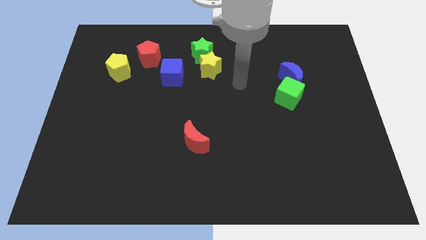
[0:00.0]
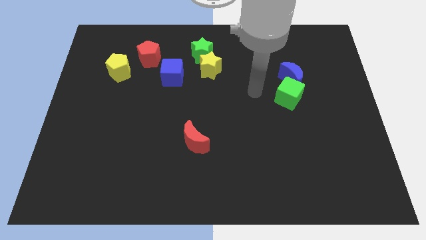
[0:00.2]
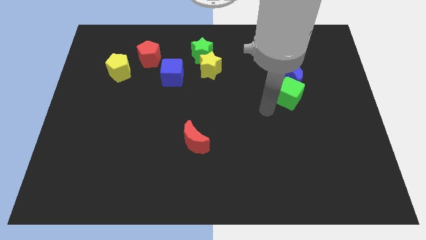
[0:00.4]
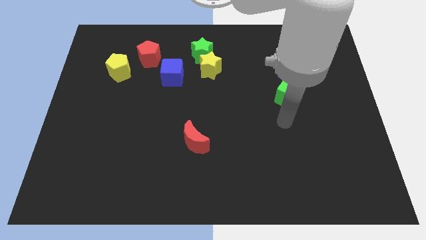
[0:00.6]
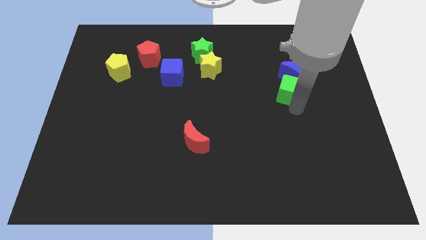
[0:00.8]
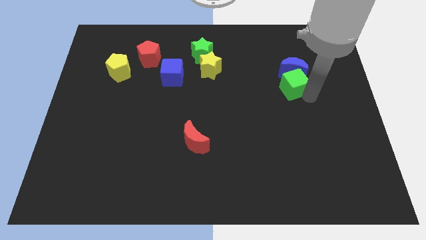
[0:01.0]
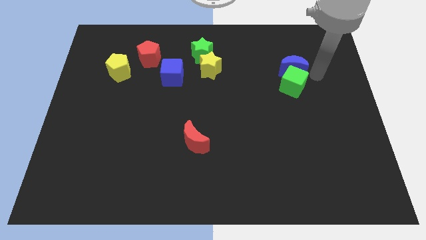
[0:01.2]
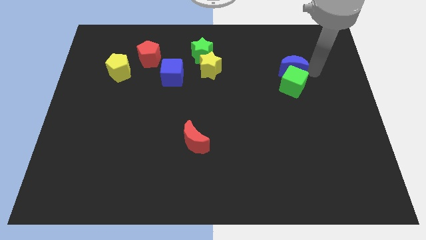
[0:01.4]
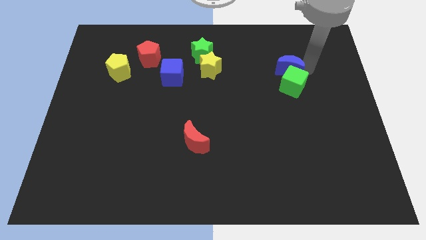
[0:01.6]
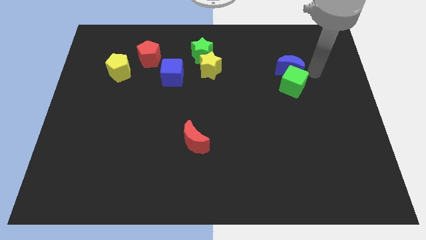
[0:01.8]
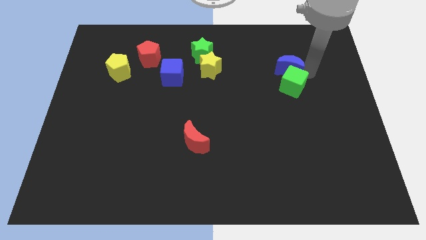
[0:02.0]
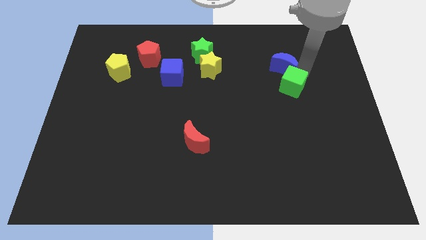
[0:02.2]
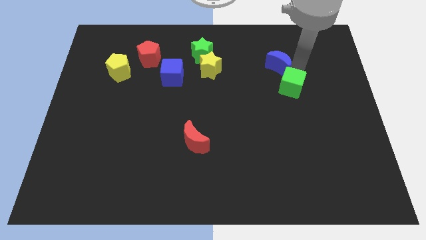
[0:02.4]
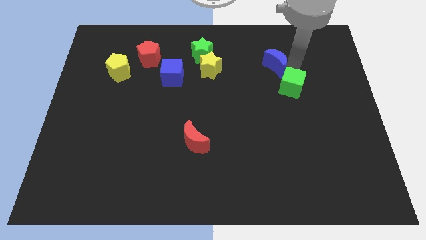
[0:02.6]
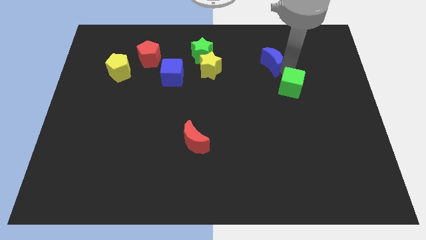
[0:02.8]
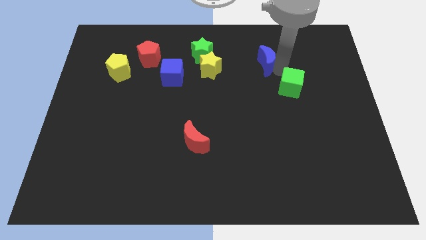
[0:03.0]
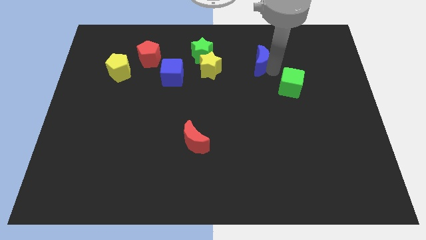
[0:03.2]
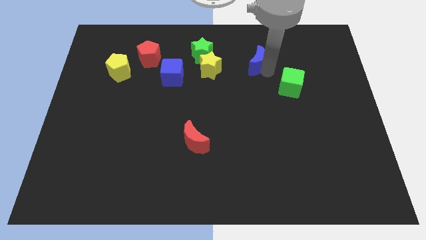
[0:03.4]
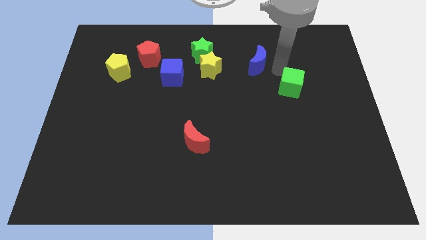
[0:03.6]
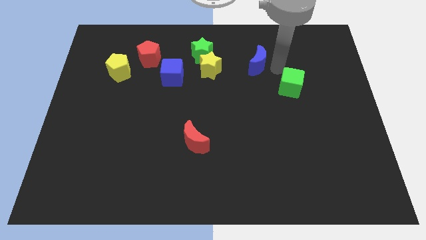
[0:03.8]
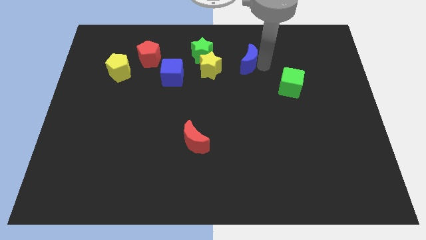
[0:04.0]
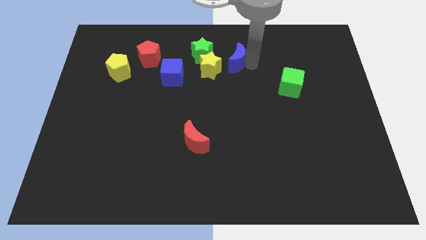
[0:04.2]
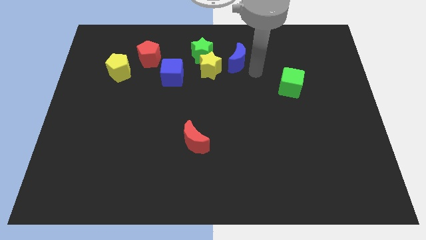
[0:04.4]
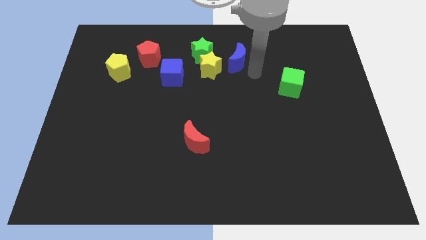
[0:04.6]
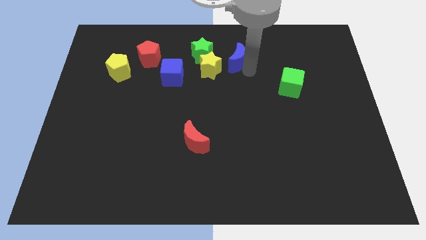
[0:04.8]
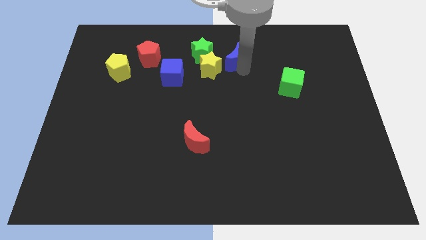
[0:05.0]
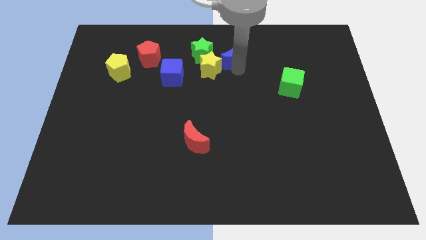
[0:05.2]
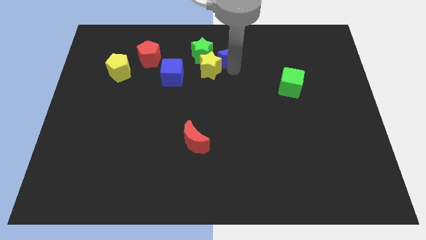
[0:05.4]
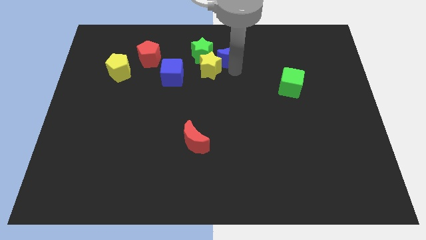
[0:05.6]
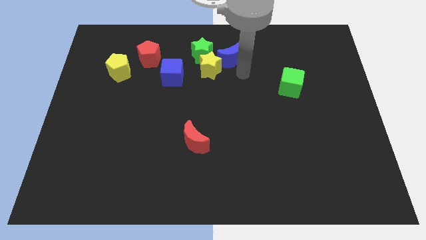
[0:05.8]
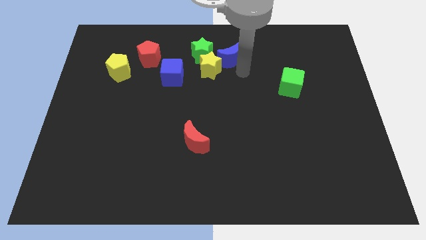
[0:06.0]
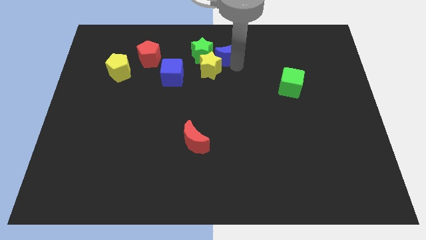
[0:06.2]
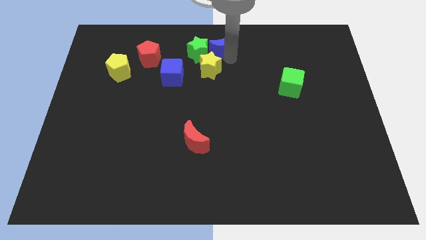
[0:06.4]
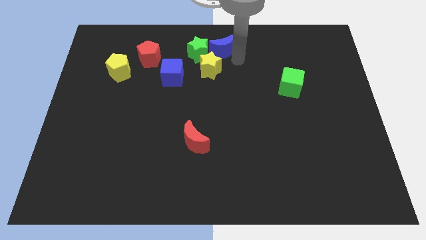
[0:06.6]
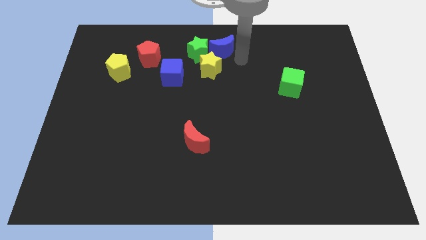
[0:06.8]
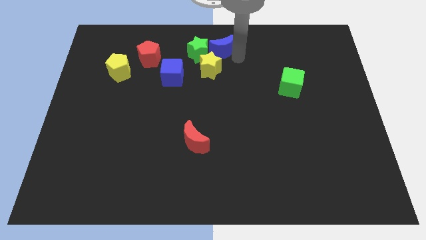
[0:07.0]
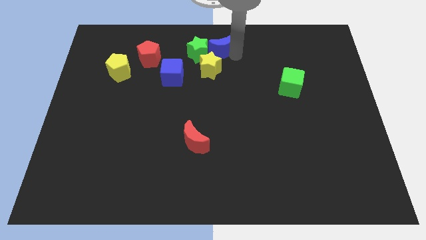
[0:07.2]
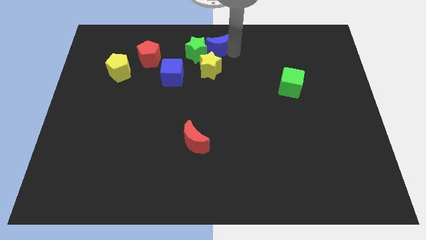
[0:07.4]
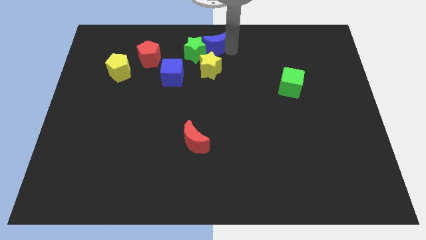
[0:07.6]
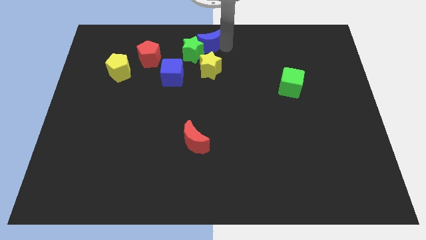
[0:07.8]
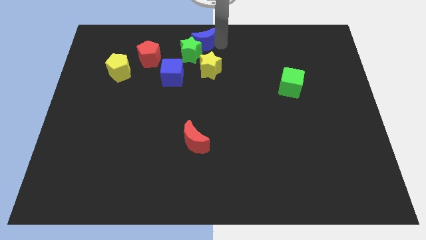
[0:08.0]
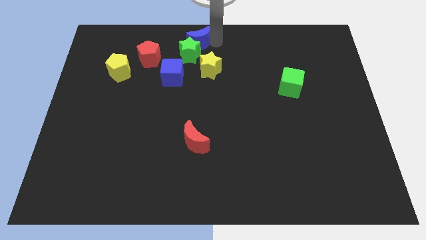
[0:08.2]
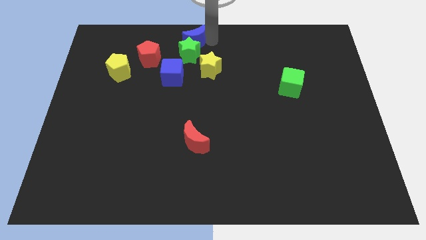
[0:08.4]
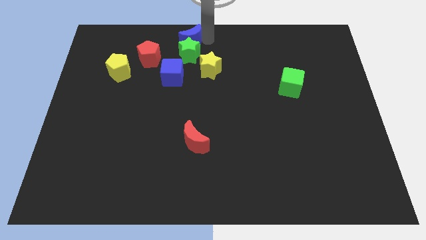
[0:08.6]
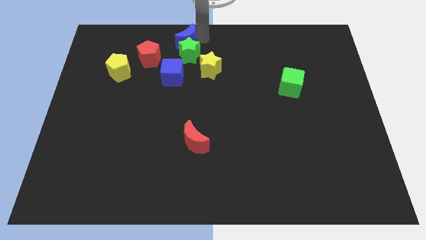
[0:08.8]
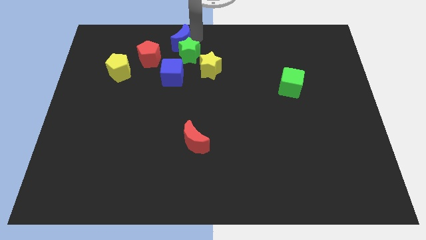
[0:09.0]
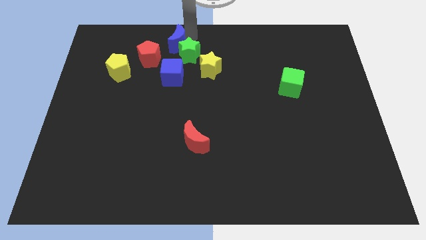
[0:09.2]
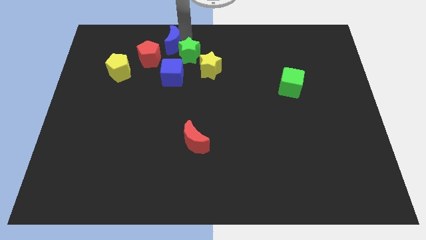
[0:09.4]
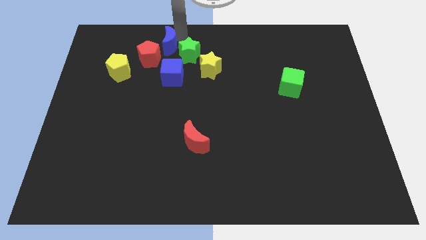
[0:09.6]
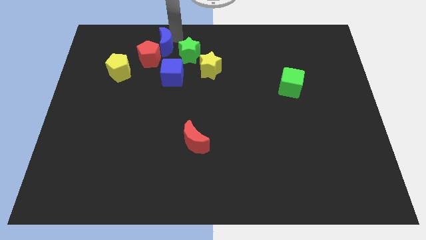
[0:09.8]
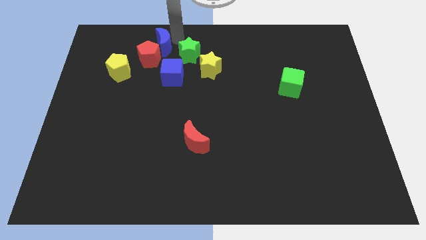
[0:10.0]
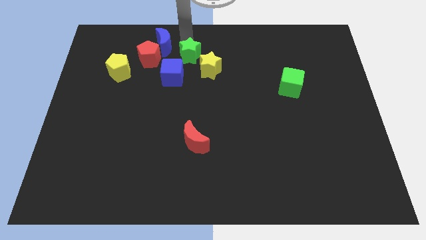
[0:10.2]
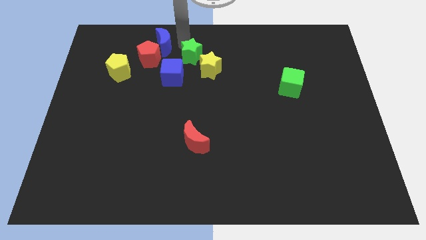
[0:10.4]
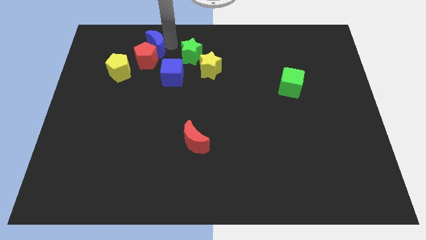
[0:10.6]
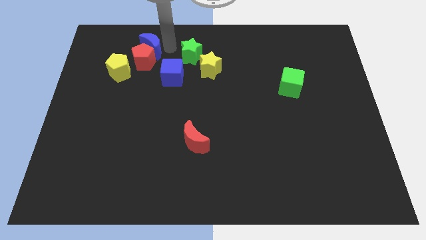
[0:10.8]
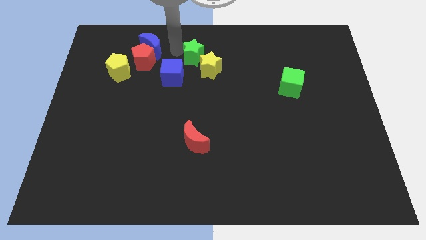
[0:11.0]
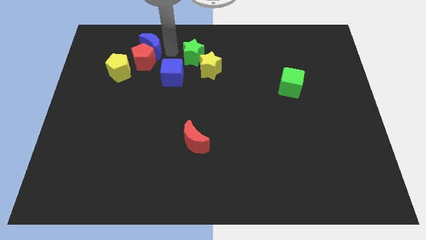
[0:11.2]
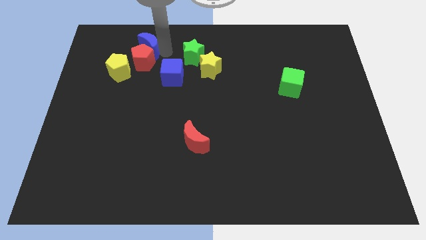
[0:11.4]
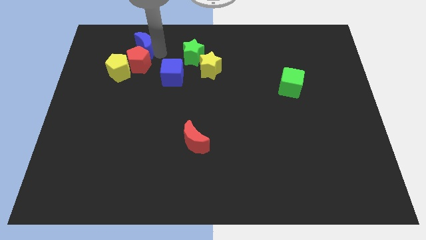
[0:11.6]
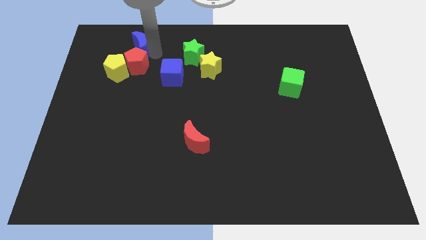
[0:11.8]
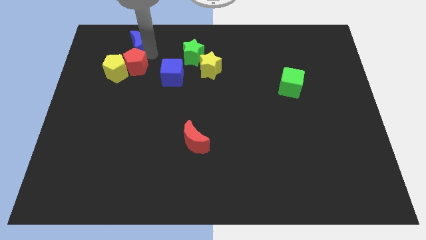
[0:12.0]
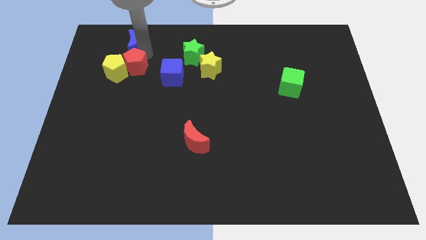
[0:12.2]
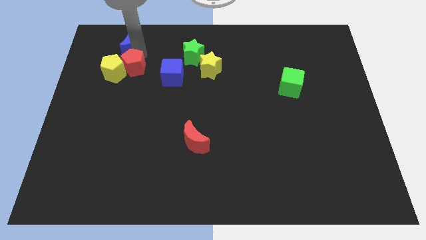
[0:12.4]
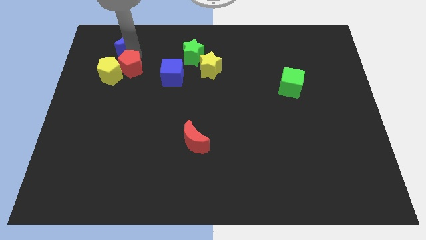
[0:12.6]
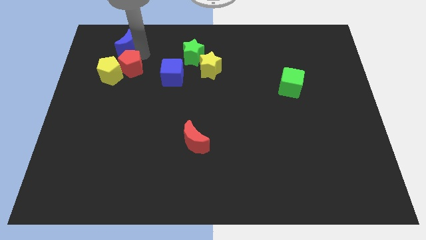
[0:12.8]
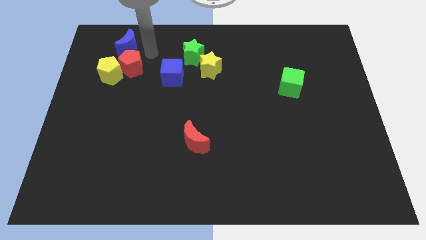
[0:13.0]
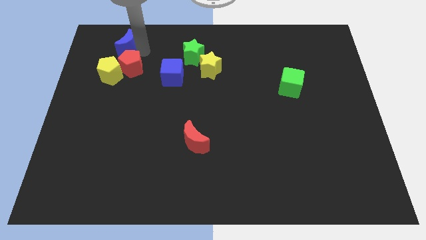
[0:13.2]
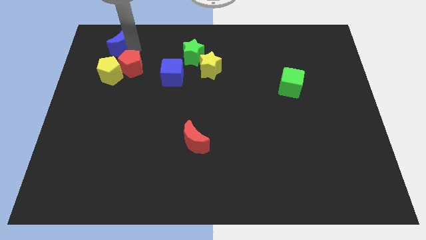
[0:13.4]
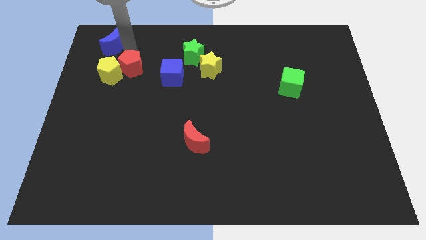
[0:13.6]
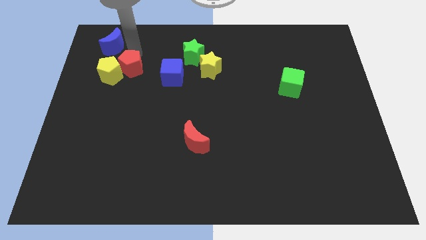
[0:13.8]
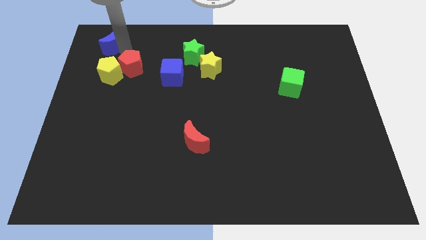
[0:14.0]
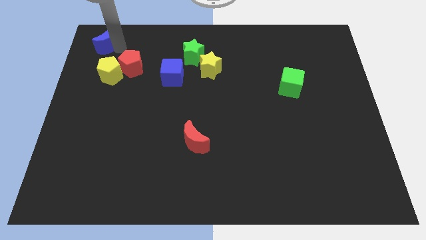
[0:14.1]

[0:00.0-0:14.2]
move the blue moon to the upper left corner
